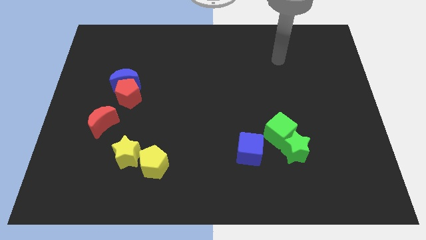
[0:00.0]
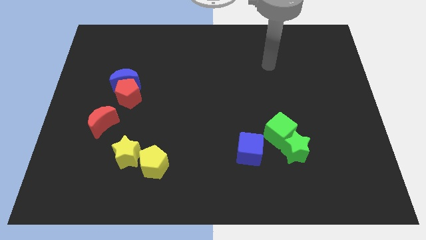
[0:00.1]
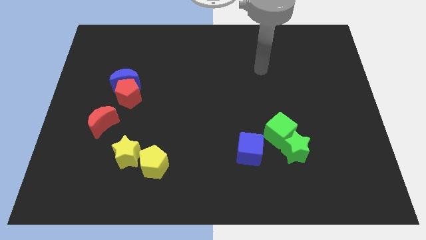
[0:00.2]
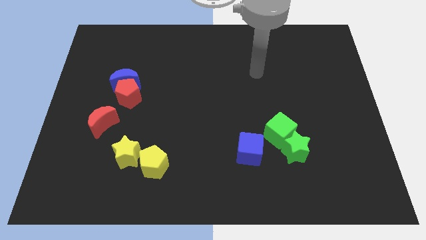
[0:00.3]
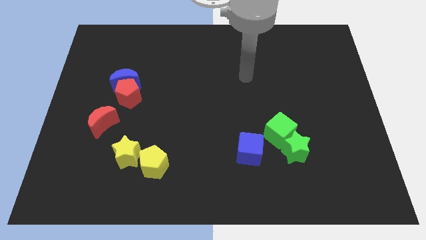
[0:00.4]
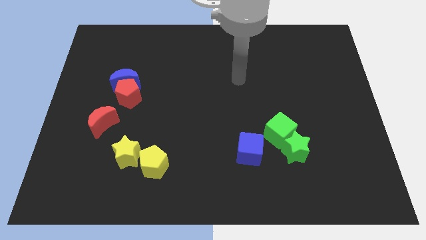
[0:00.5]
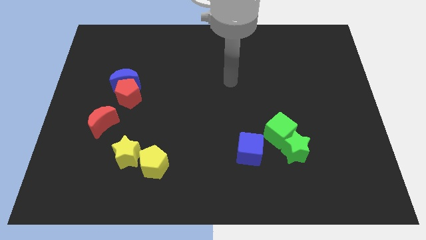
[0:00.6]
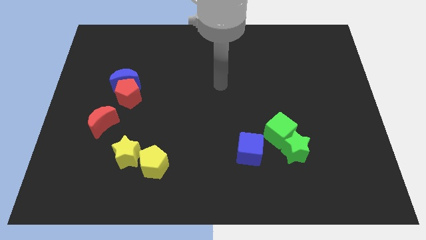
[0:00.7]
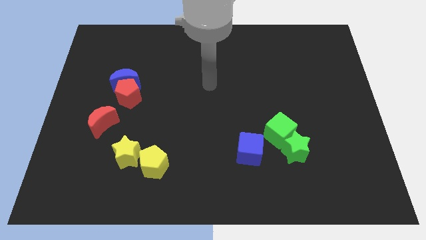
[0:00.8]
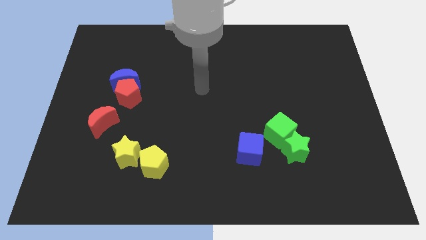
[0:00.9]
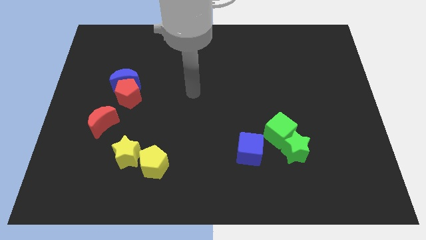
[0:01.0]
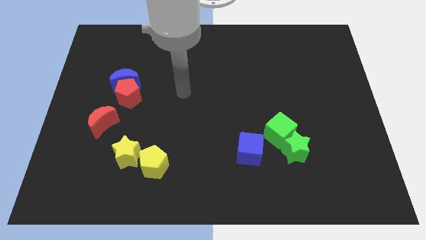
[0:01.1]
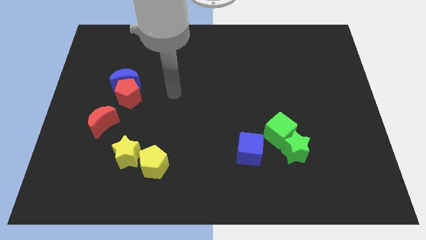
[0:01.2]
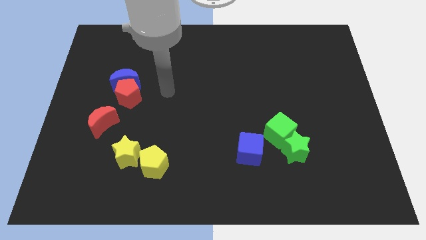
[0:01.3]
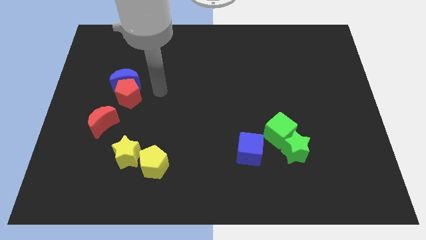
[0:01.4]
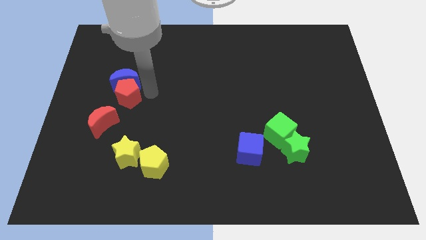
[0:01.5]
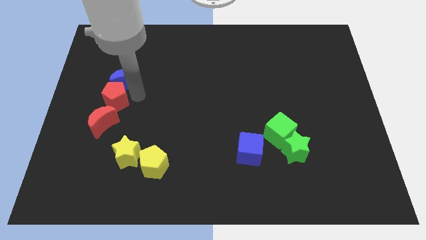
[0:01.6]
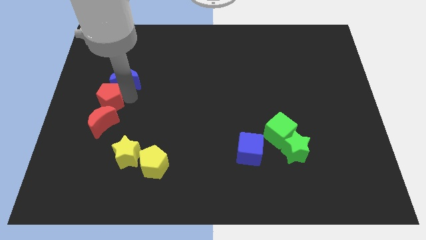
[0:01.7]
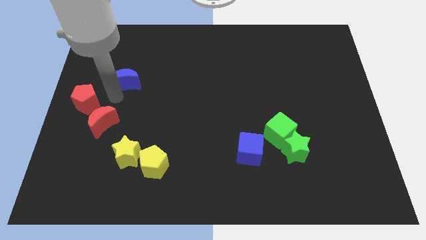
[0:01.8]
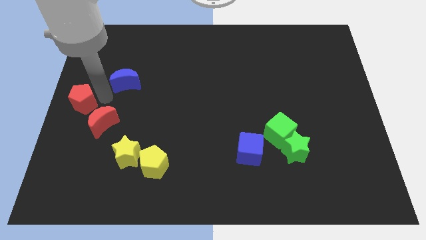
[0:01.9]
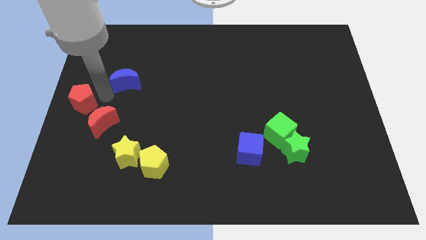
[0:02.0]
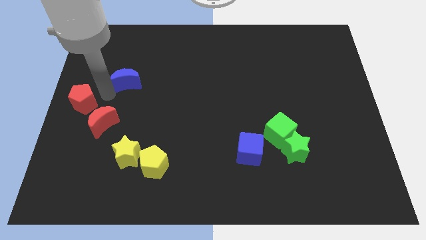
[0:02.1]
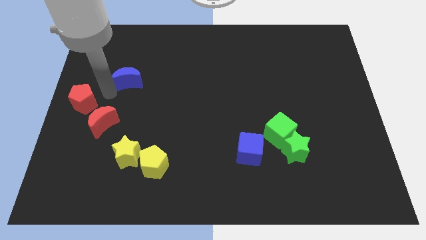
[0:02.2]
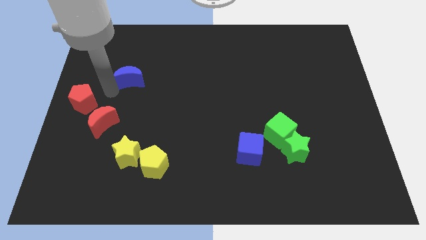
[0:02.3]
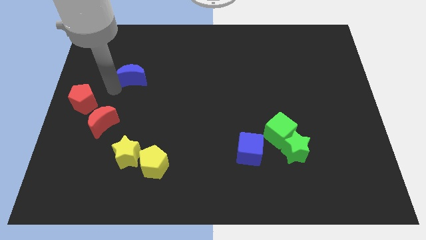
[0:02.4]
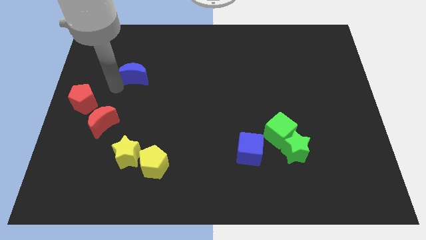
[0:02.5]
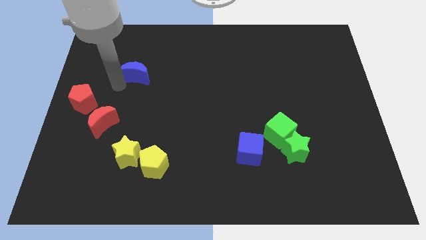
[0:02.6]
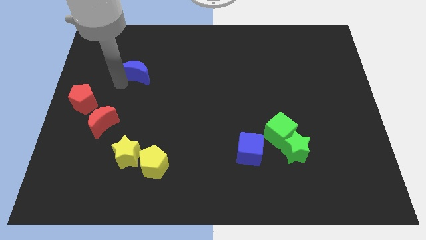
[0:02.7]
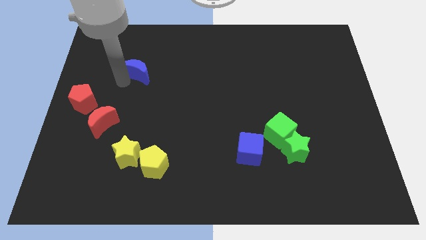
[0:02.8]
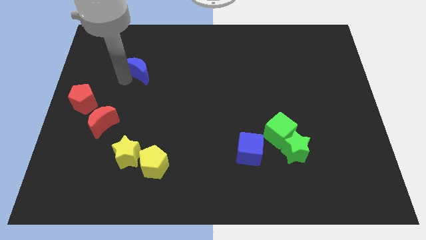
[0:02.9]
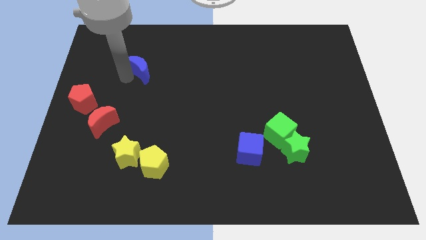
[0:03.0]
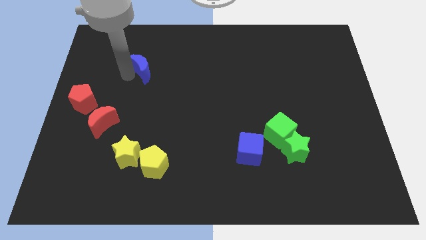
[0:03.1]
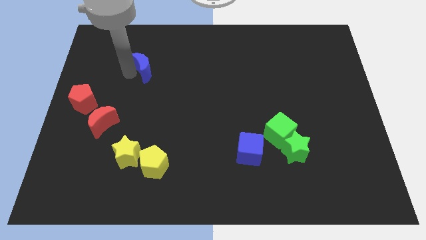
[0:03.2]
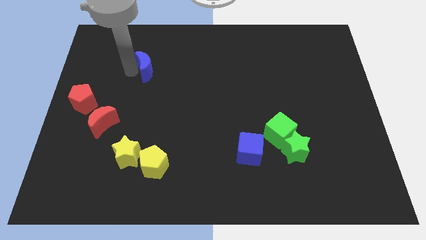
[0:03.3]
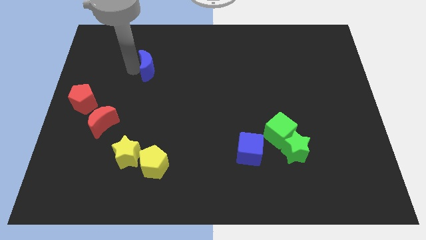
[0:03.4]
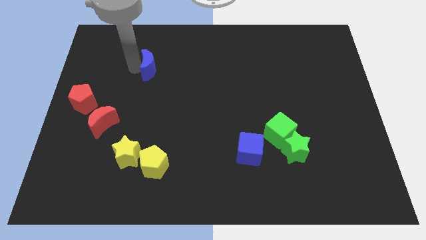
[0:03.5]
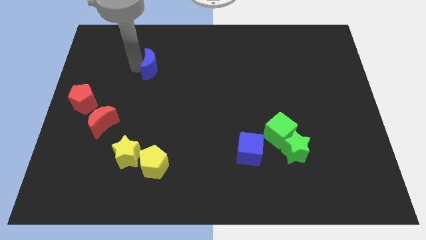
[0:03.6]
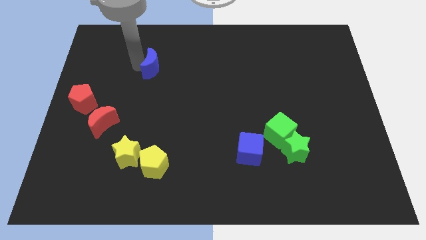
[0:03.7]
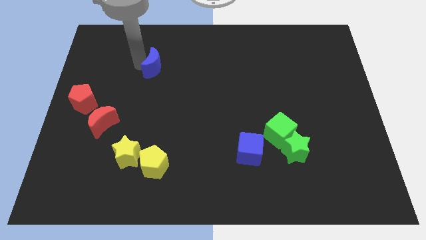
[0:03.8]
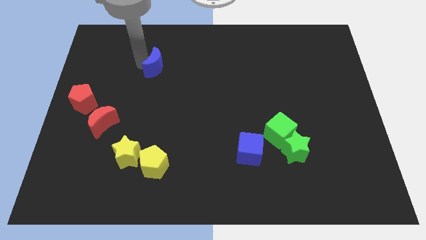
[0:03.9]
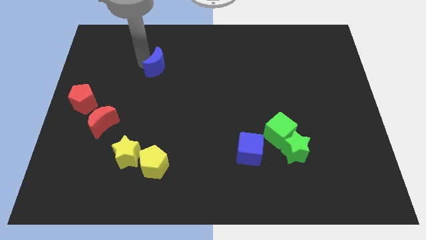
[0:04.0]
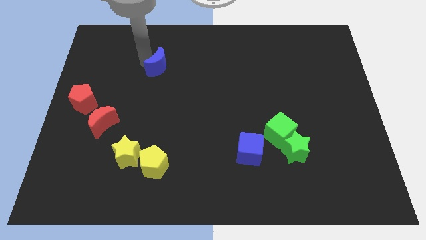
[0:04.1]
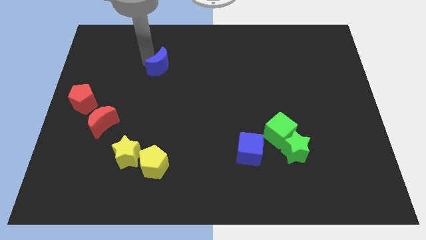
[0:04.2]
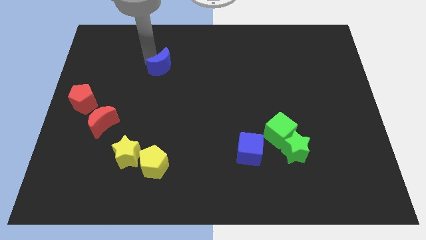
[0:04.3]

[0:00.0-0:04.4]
move the blue moon somewhat right

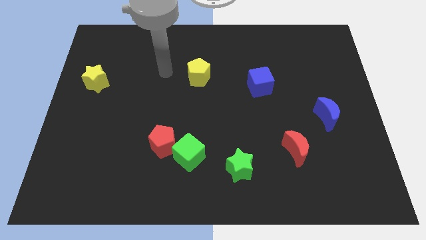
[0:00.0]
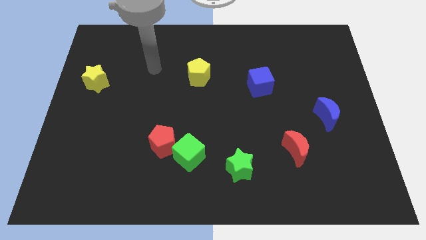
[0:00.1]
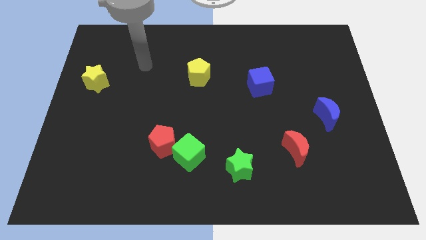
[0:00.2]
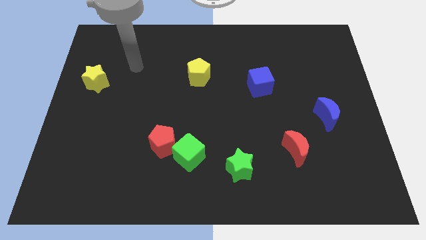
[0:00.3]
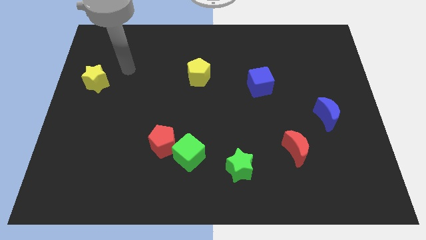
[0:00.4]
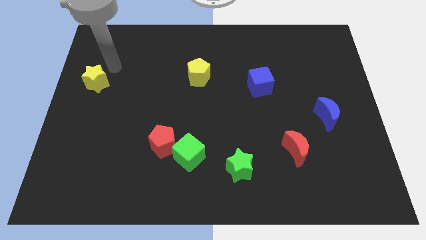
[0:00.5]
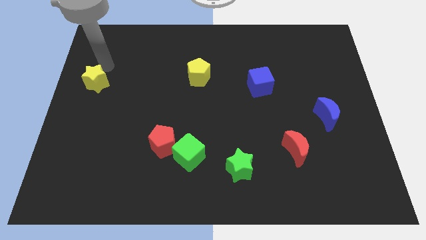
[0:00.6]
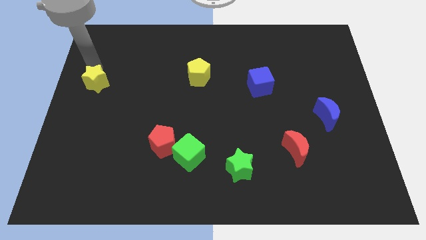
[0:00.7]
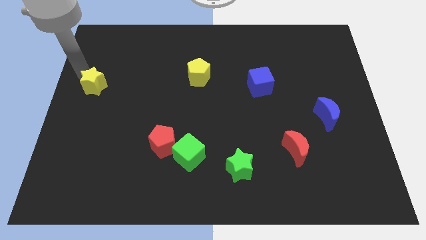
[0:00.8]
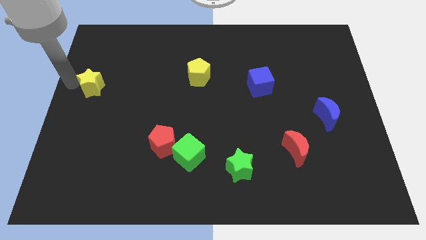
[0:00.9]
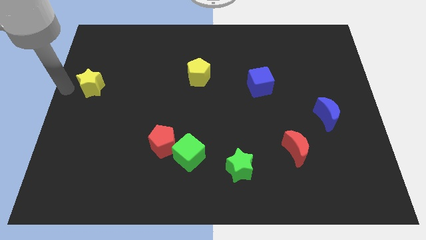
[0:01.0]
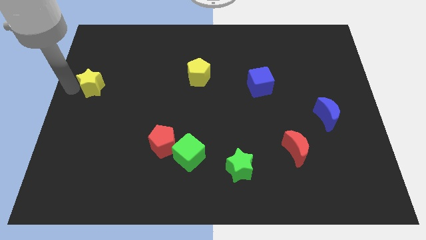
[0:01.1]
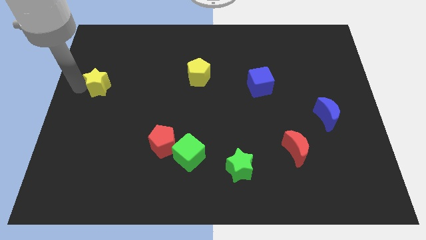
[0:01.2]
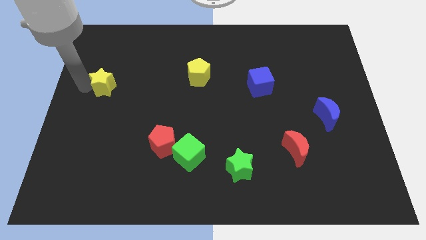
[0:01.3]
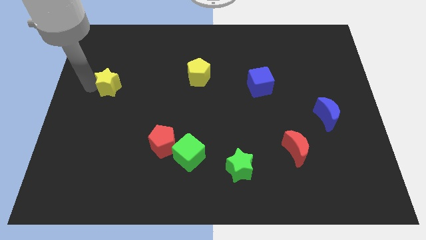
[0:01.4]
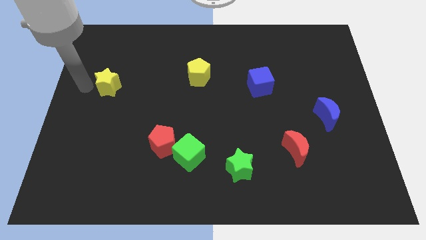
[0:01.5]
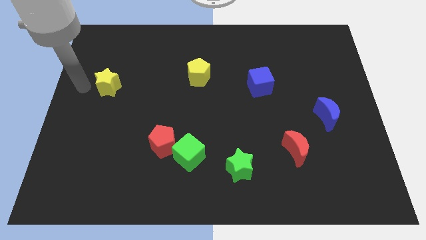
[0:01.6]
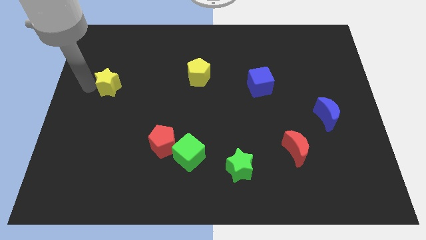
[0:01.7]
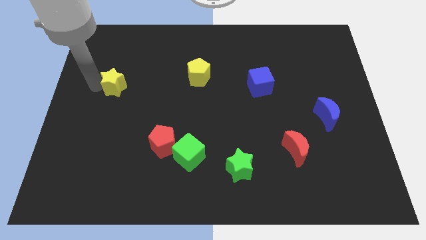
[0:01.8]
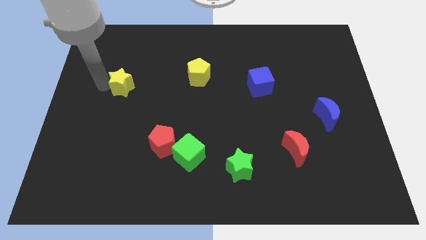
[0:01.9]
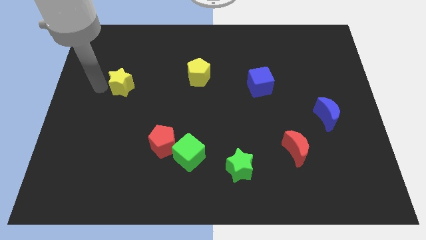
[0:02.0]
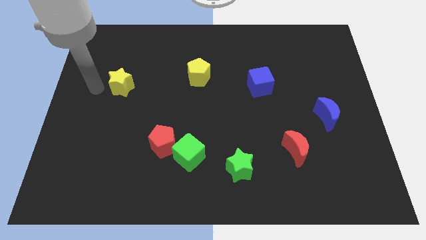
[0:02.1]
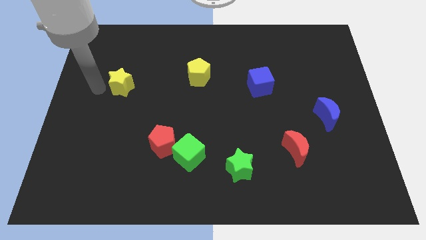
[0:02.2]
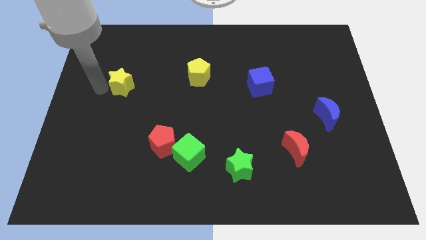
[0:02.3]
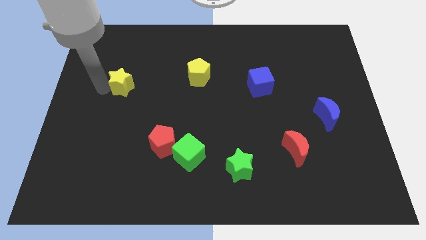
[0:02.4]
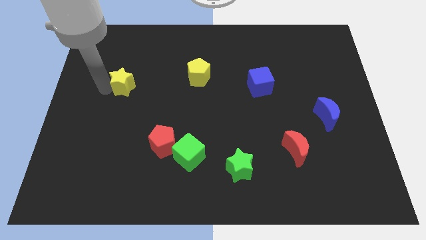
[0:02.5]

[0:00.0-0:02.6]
push the yellow star to the right somewhat

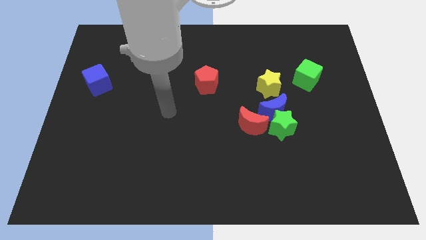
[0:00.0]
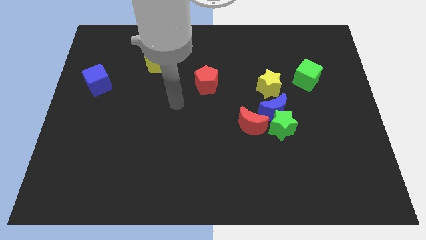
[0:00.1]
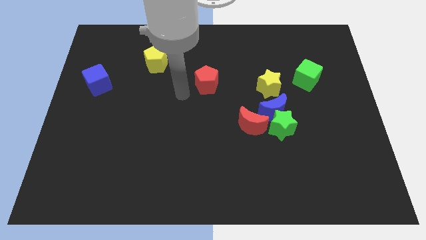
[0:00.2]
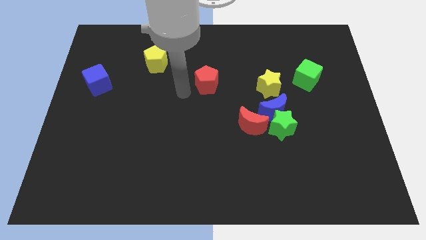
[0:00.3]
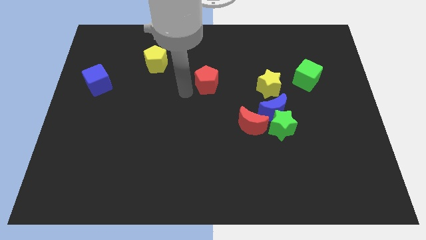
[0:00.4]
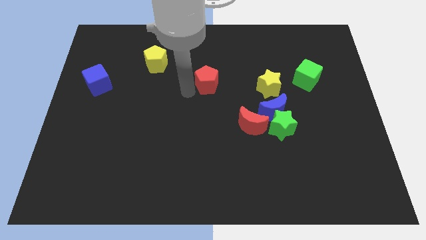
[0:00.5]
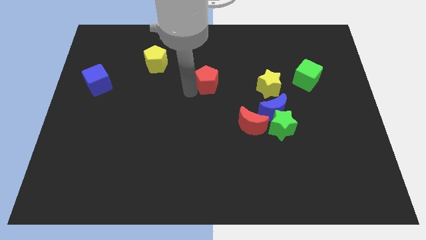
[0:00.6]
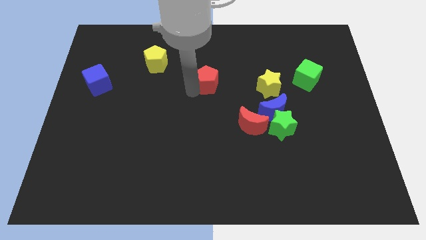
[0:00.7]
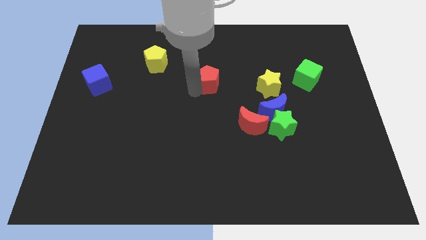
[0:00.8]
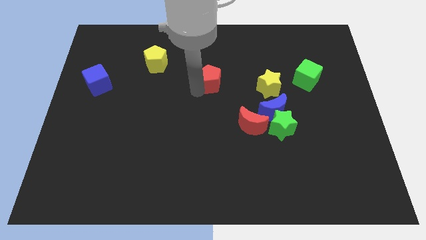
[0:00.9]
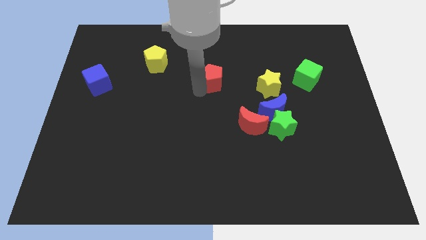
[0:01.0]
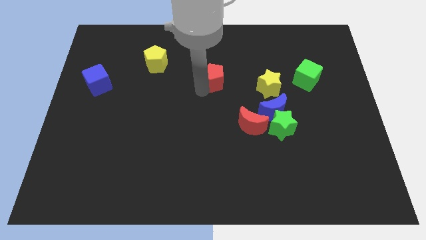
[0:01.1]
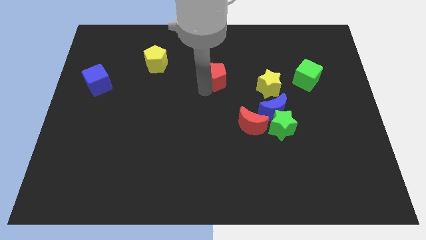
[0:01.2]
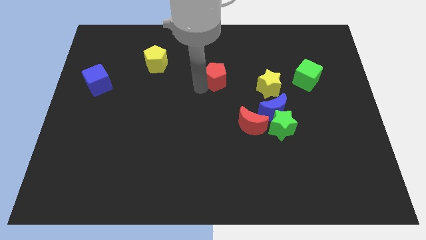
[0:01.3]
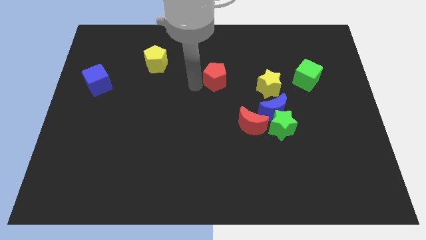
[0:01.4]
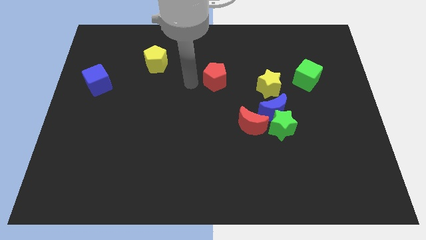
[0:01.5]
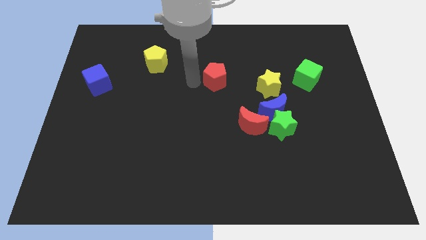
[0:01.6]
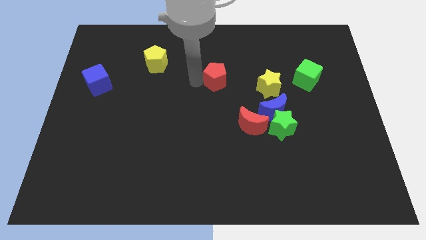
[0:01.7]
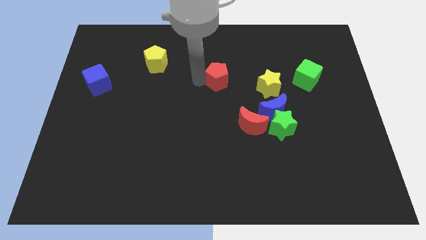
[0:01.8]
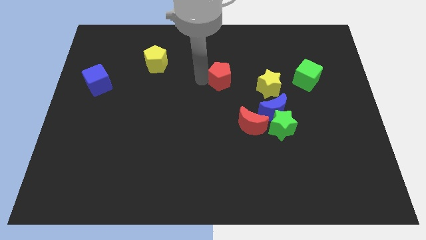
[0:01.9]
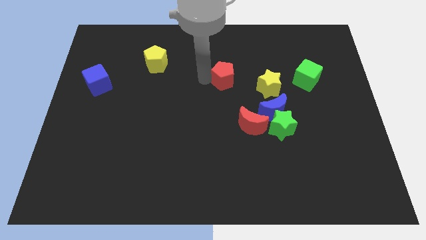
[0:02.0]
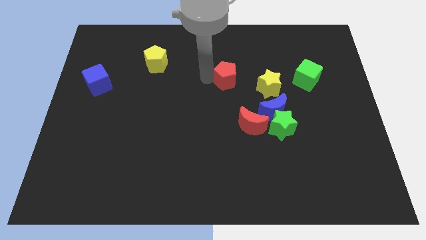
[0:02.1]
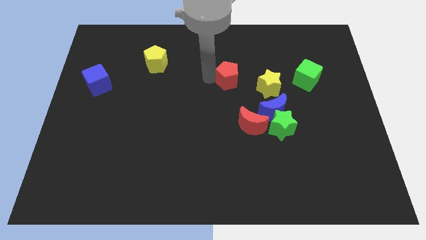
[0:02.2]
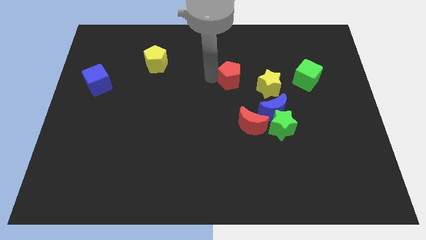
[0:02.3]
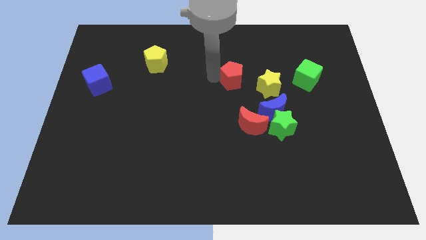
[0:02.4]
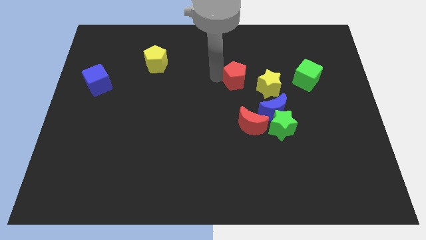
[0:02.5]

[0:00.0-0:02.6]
move the red pentagon slightly right
